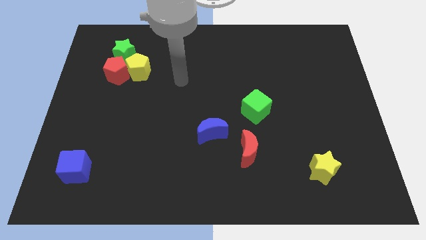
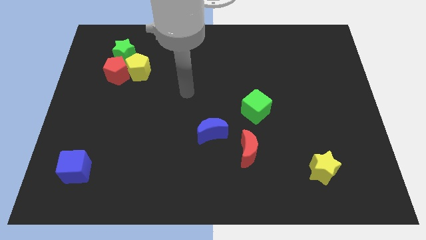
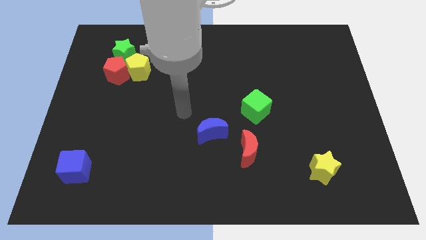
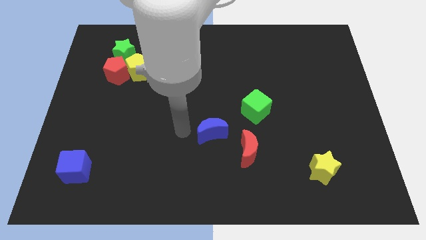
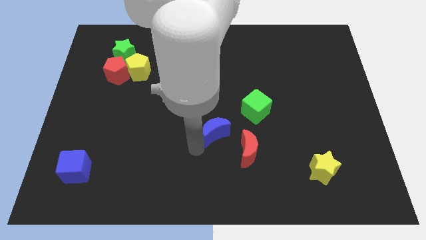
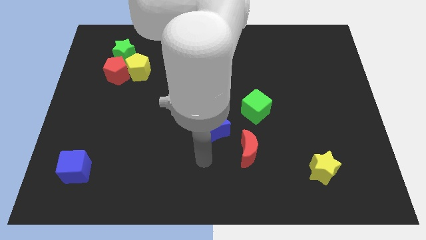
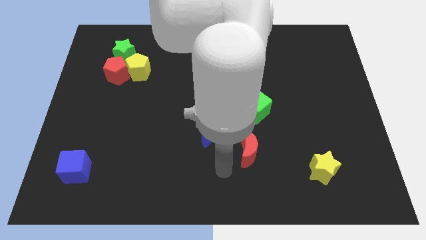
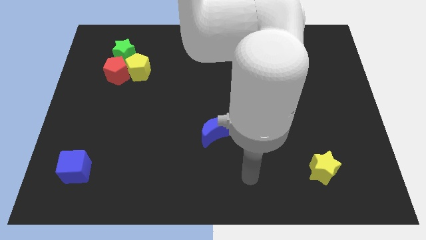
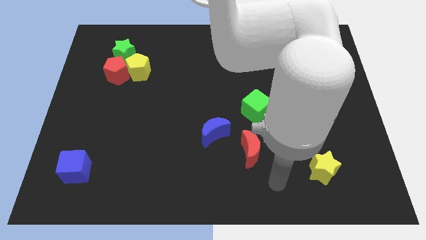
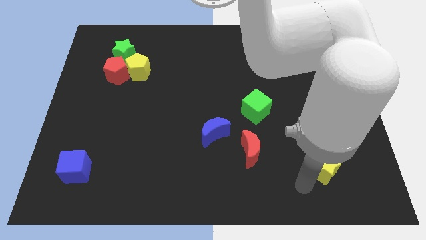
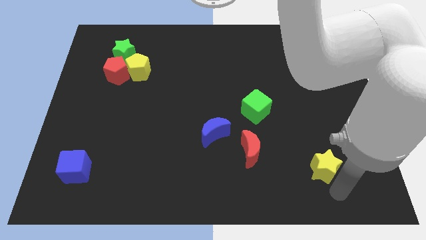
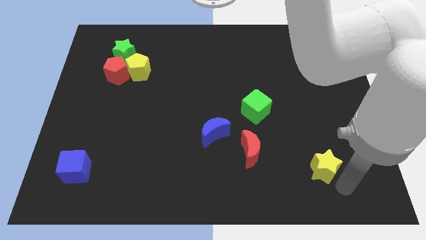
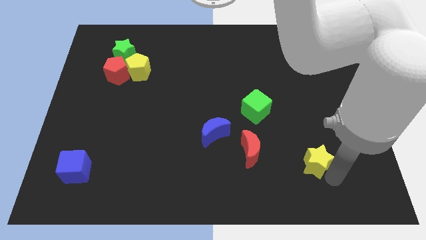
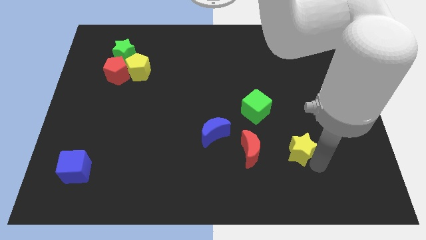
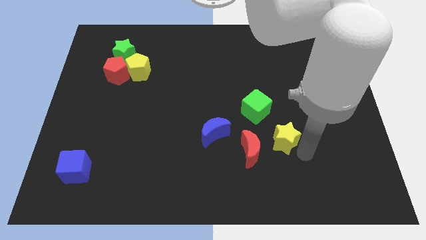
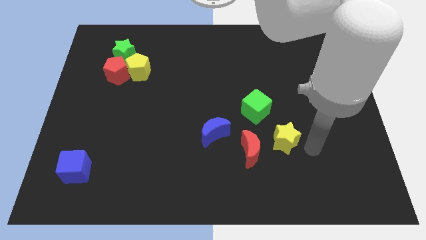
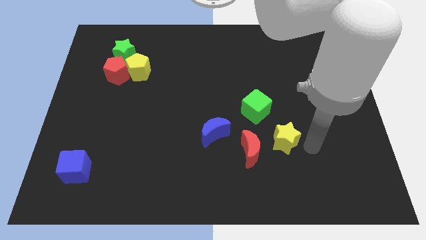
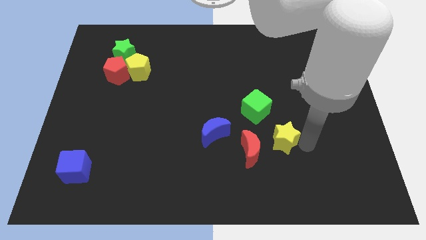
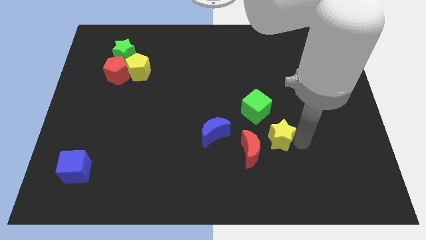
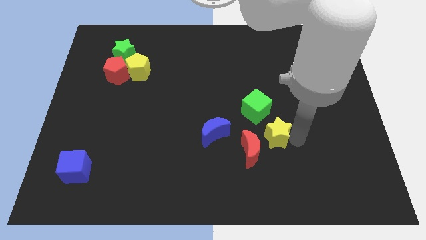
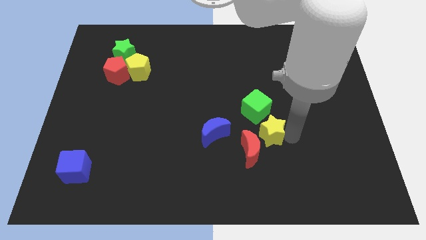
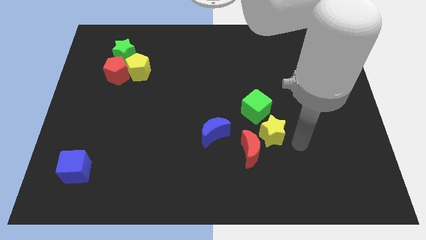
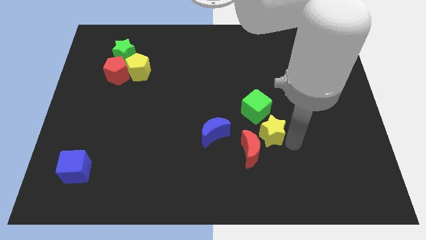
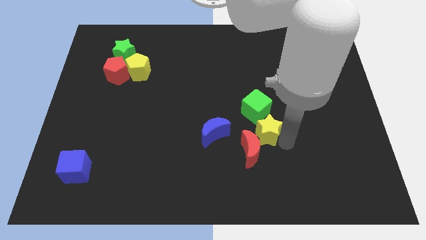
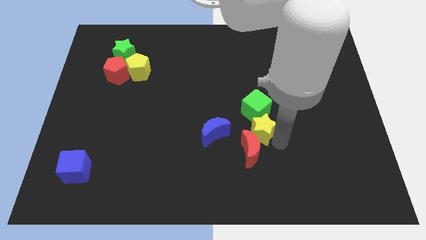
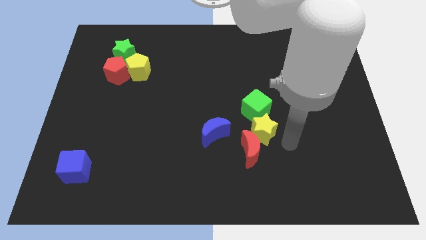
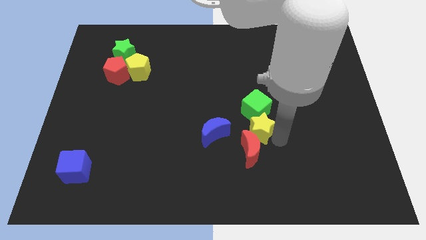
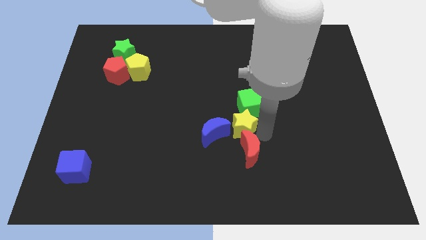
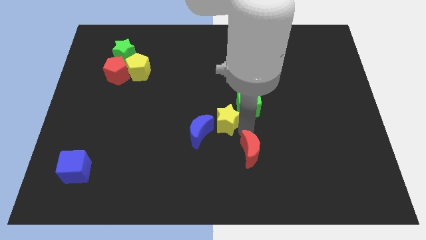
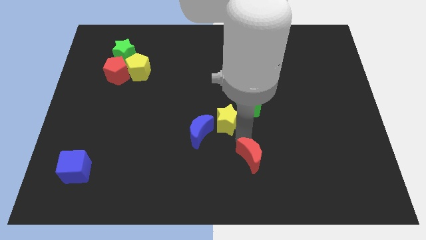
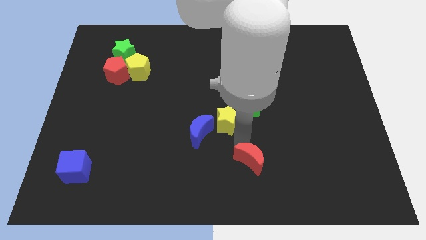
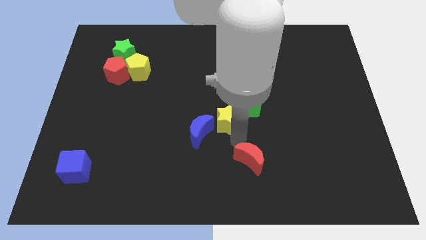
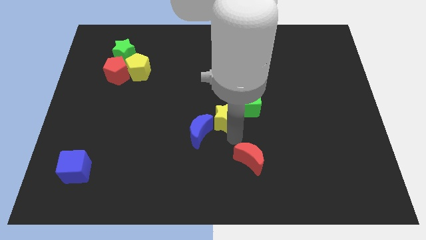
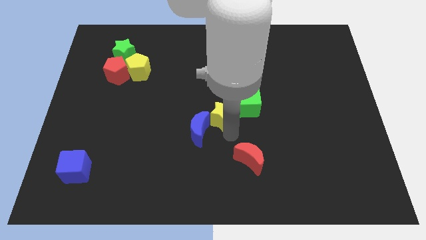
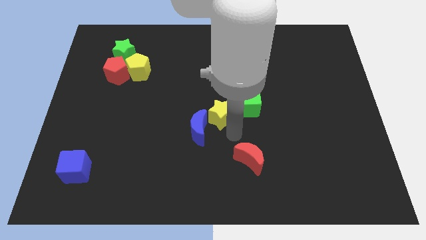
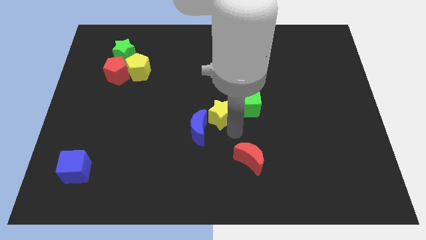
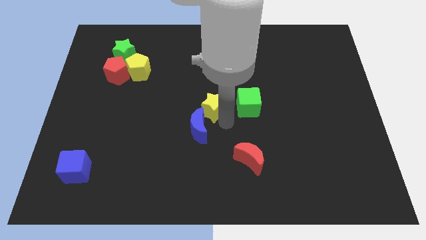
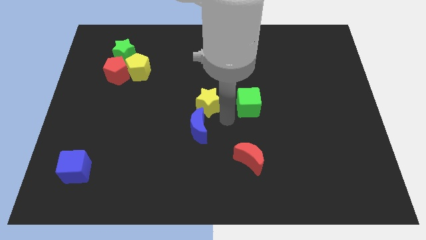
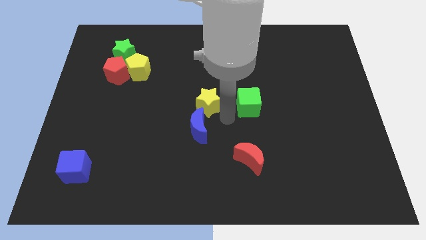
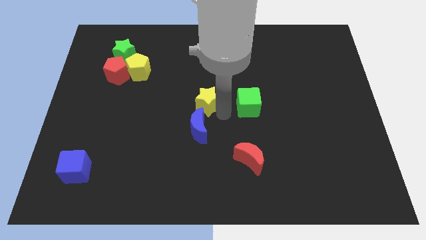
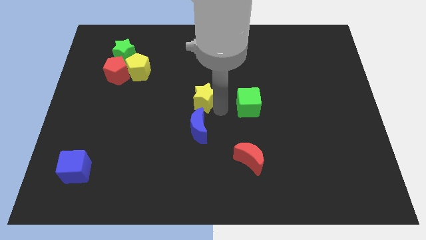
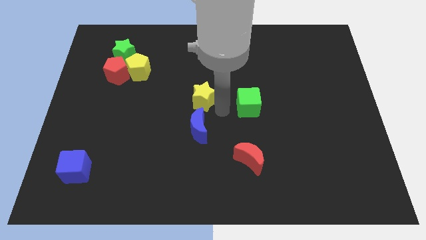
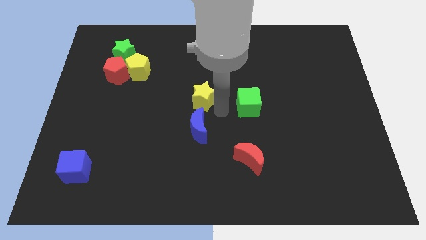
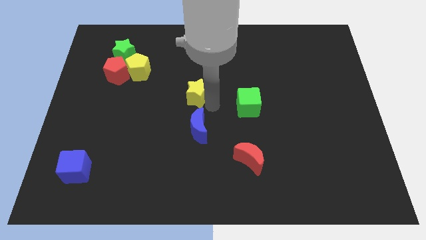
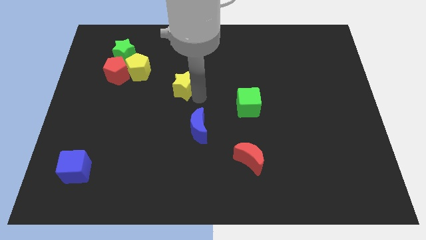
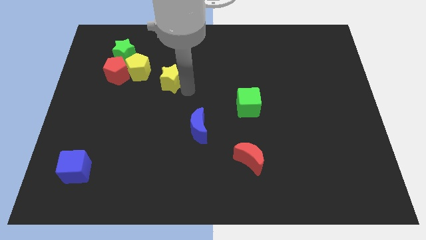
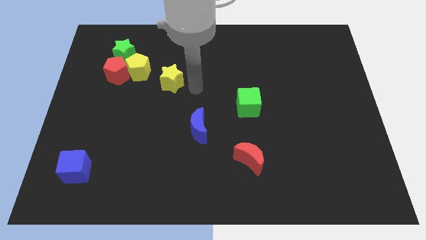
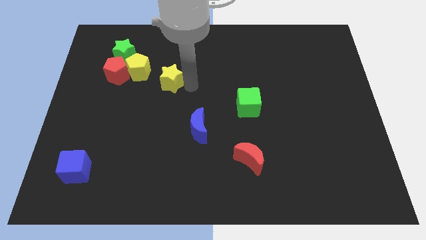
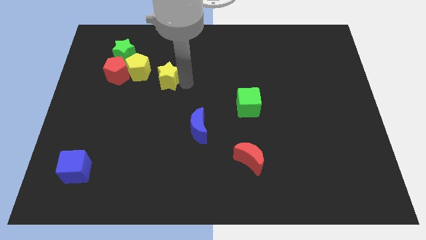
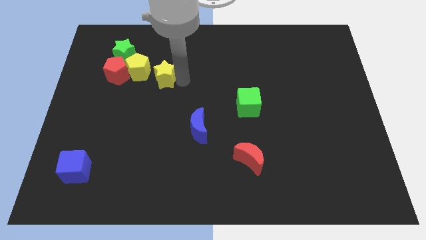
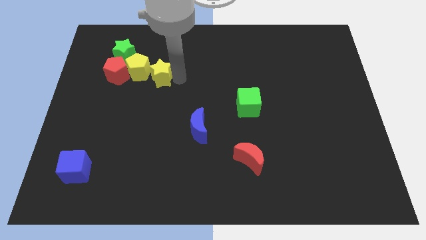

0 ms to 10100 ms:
put the yellow star close to the yellow pentagon

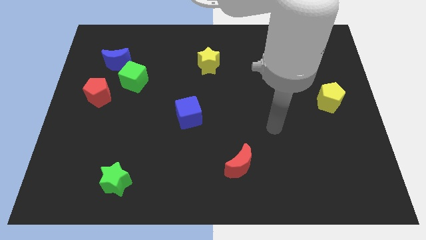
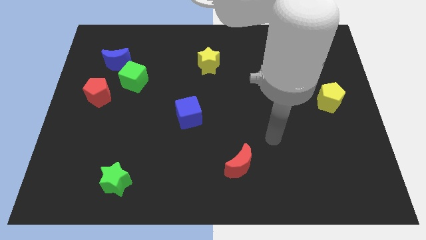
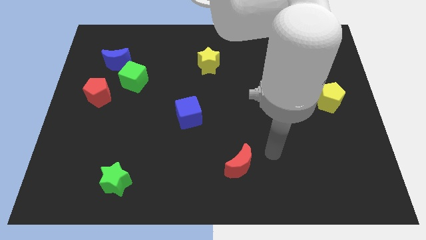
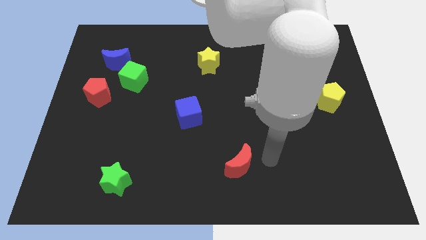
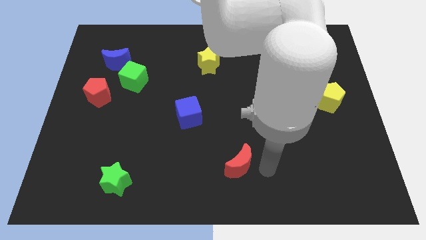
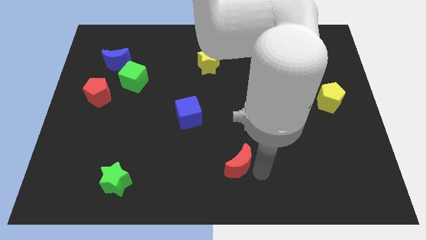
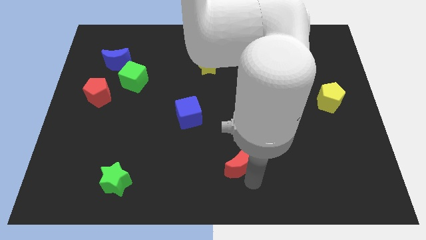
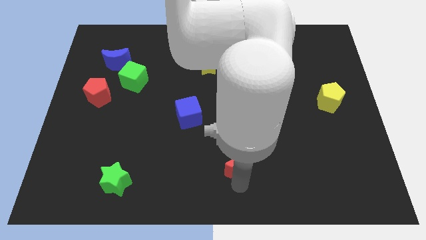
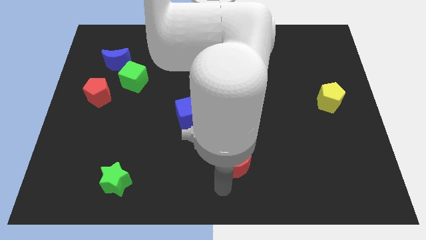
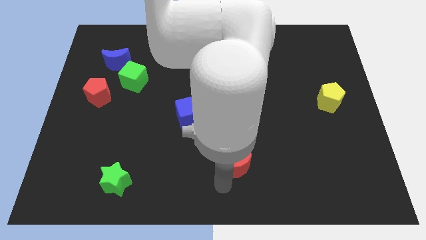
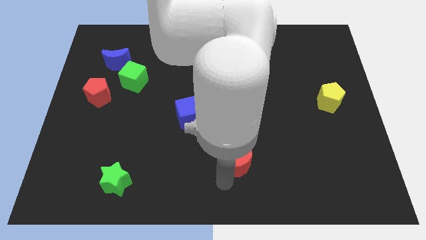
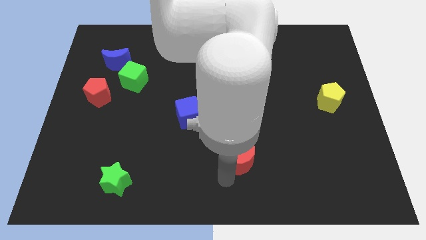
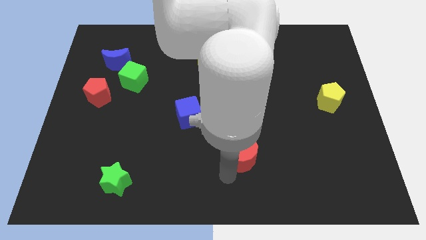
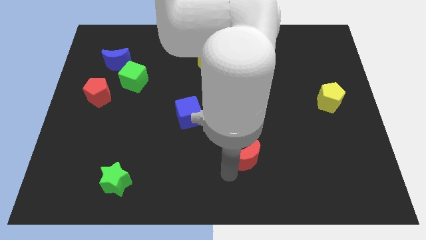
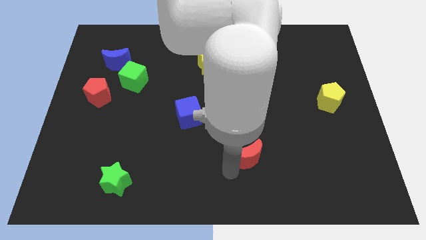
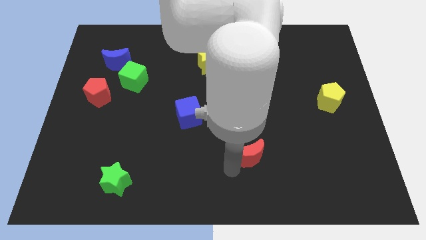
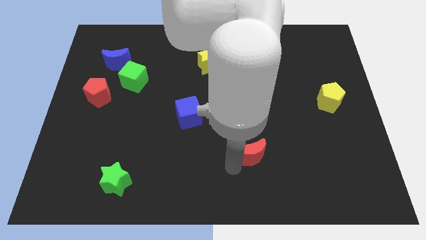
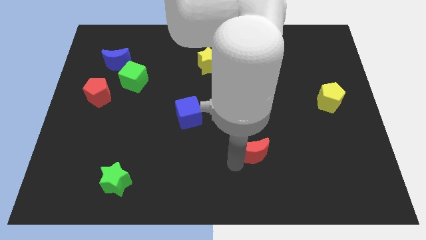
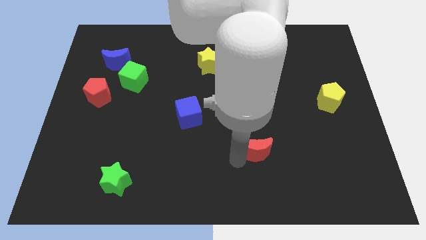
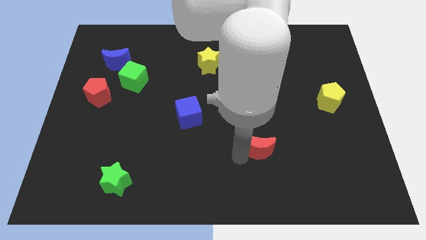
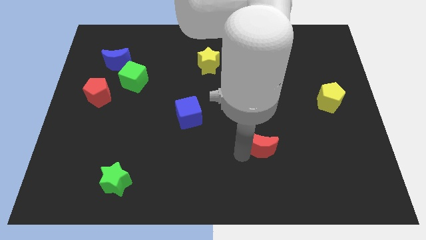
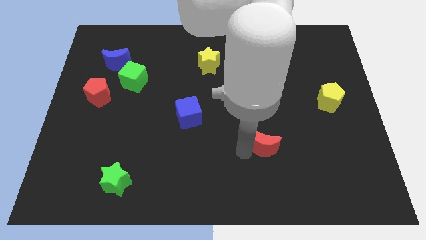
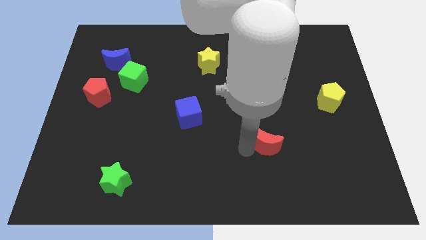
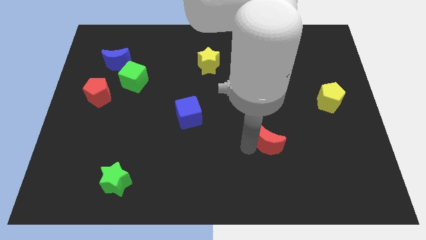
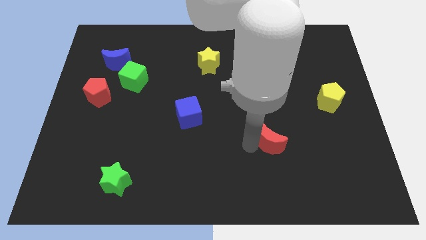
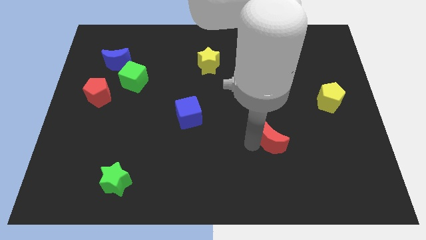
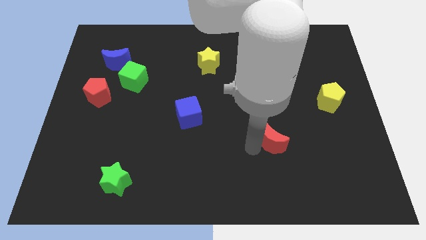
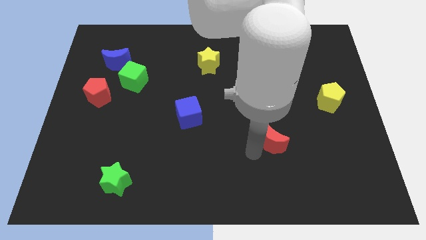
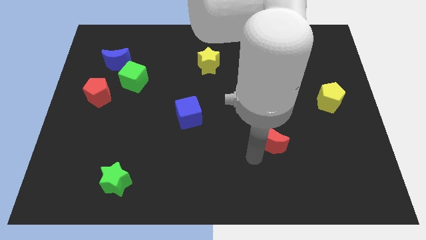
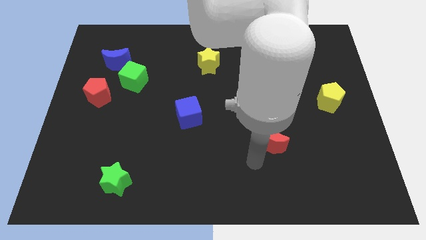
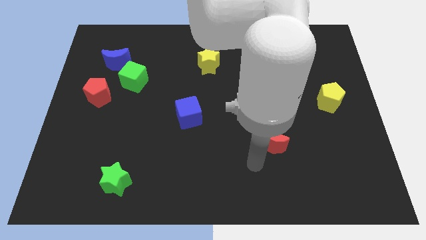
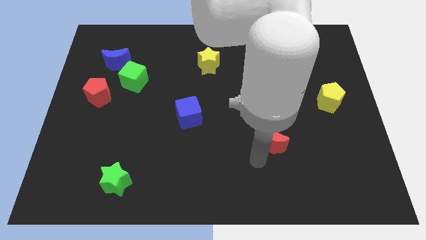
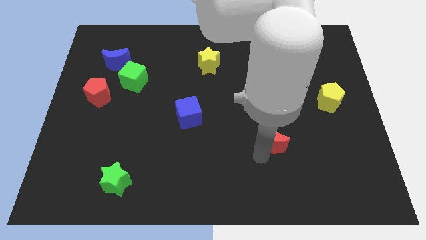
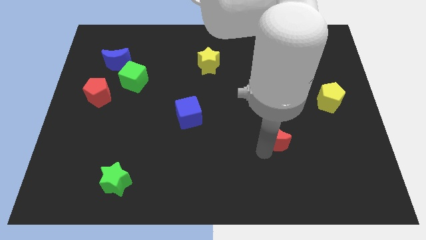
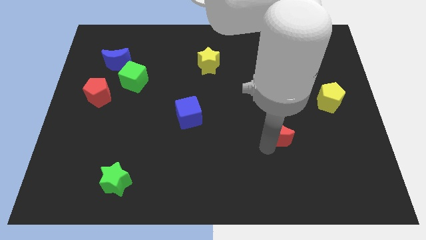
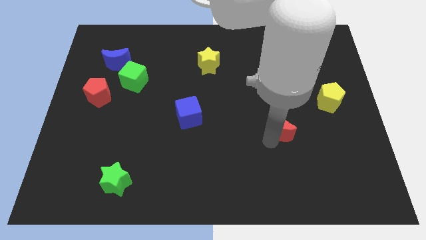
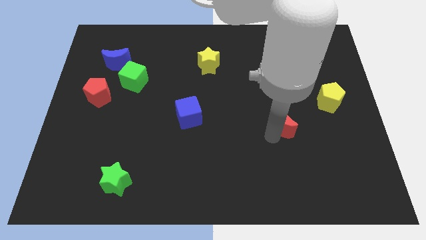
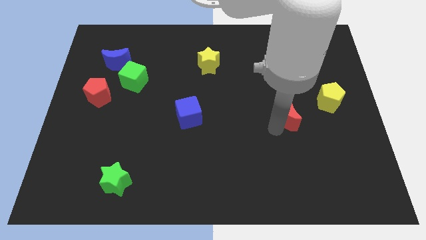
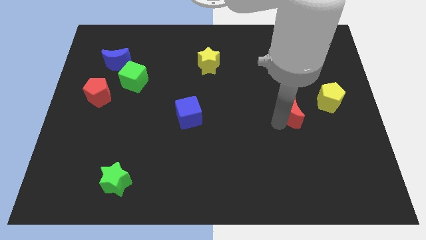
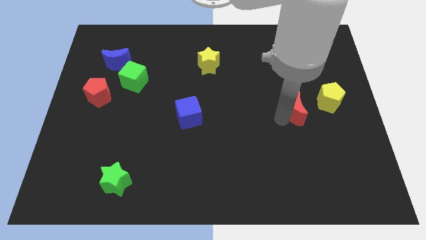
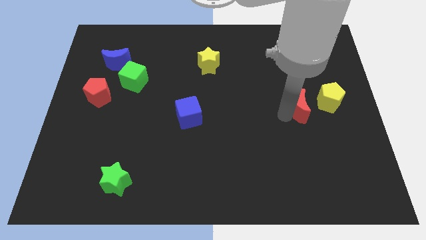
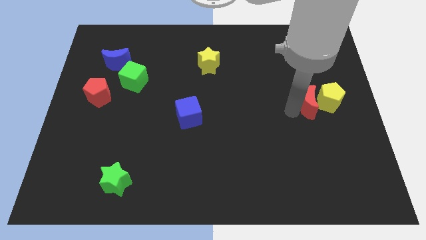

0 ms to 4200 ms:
put the red moon to the yellow pentagon
